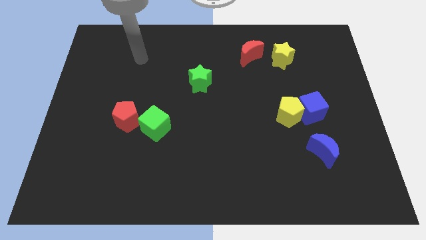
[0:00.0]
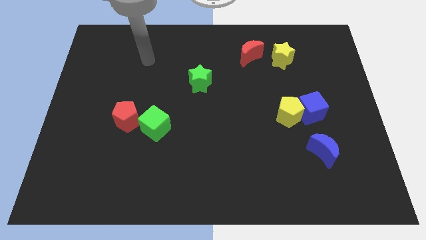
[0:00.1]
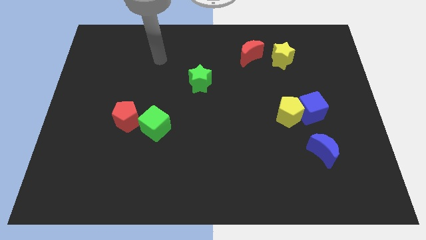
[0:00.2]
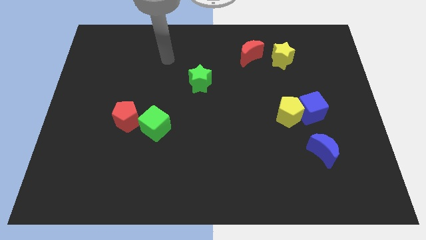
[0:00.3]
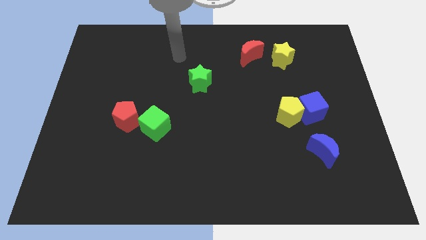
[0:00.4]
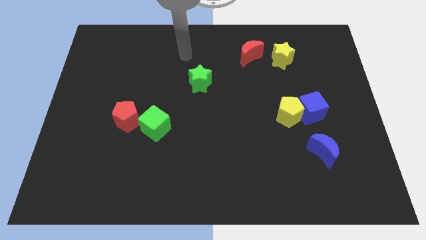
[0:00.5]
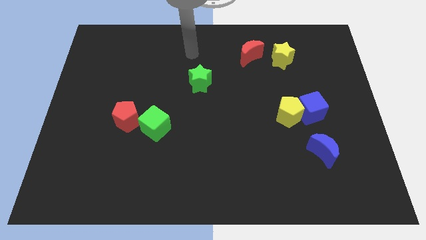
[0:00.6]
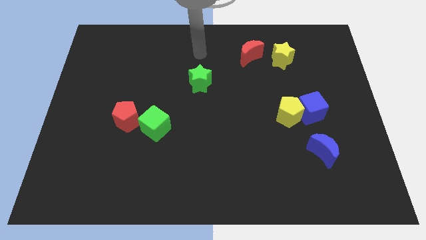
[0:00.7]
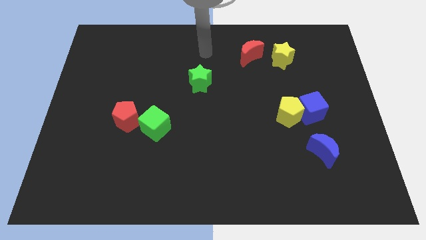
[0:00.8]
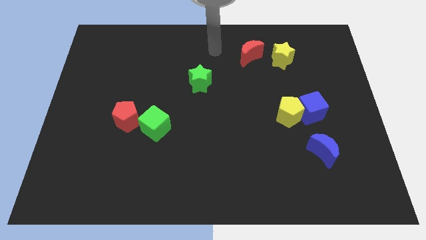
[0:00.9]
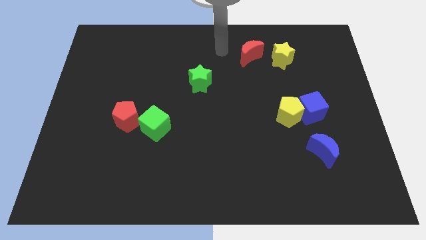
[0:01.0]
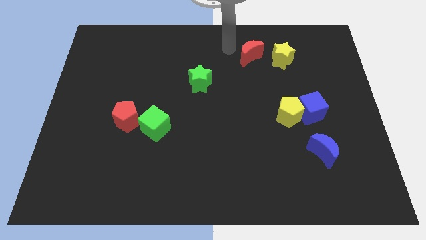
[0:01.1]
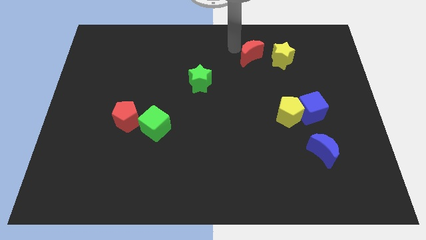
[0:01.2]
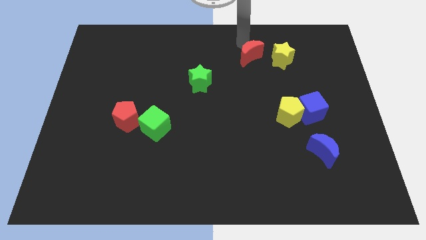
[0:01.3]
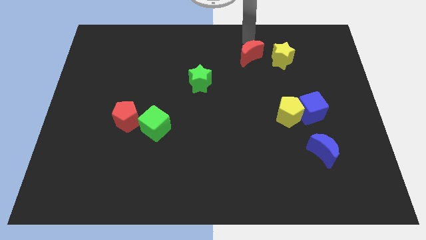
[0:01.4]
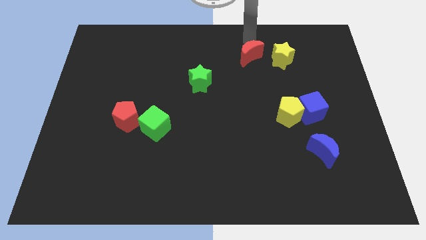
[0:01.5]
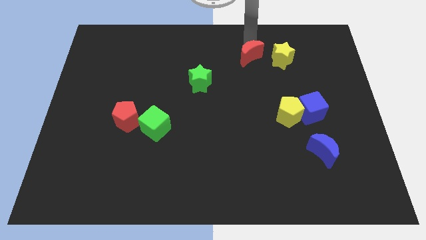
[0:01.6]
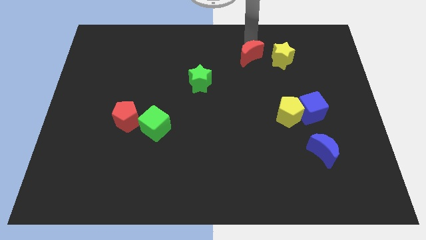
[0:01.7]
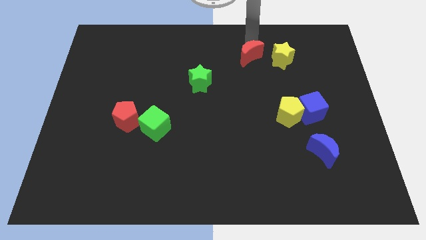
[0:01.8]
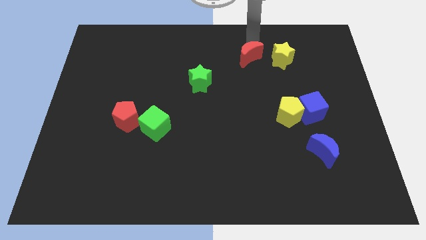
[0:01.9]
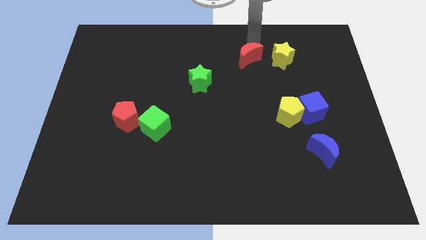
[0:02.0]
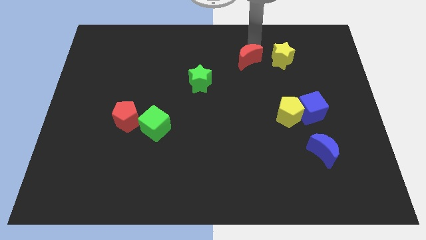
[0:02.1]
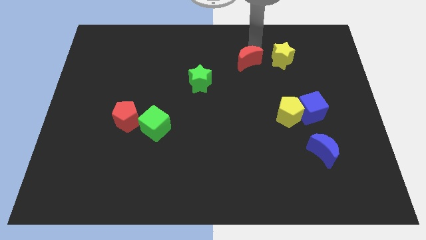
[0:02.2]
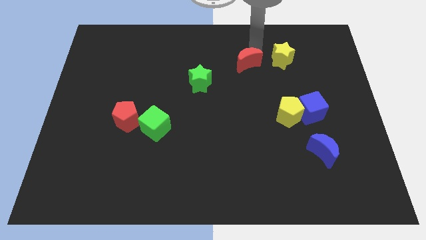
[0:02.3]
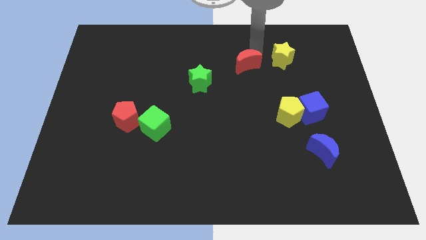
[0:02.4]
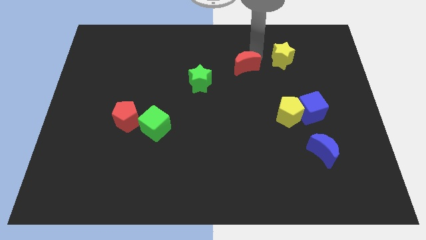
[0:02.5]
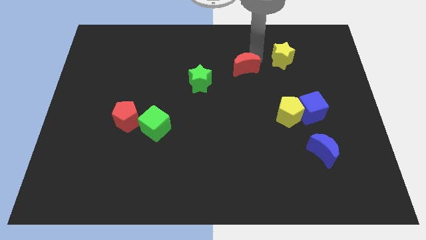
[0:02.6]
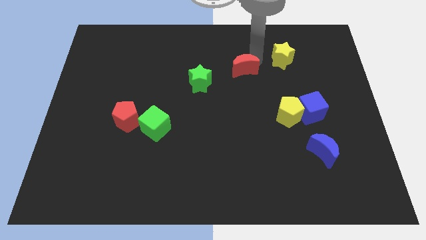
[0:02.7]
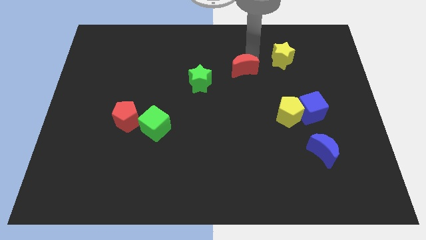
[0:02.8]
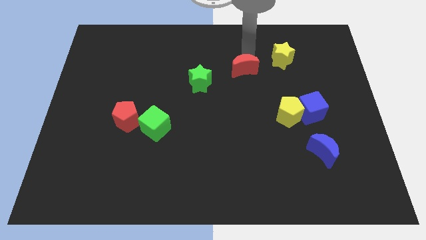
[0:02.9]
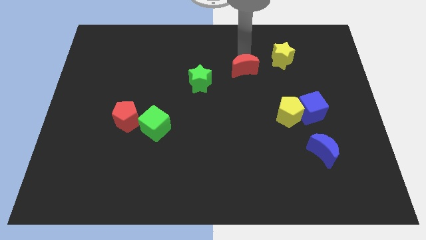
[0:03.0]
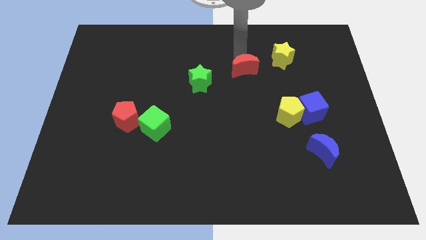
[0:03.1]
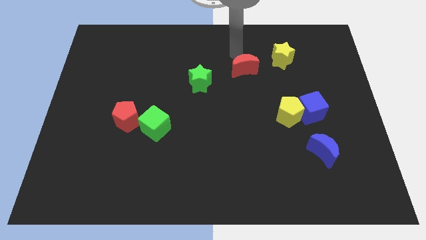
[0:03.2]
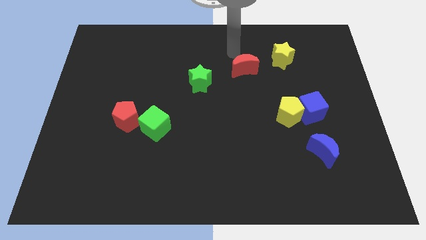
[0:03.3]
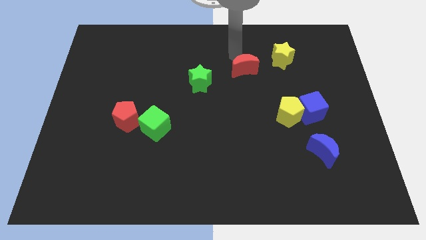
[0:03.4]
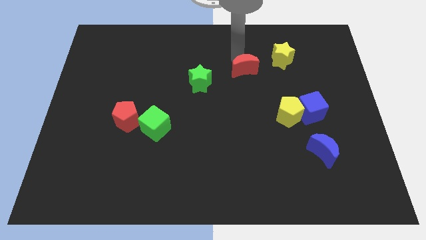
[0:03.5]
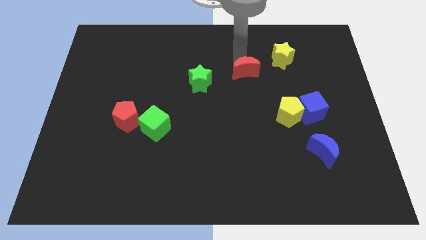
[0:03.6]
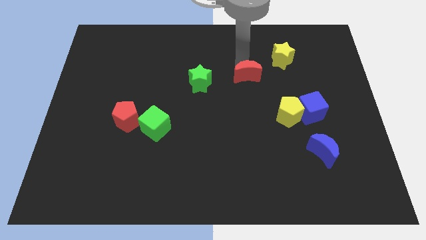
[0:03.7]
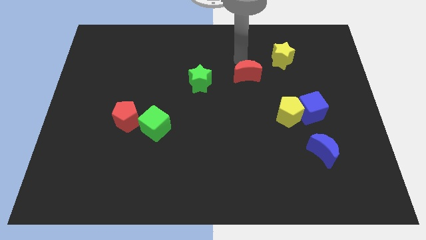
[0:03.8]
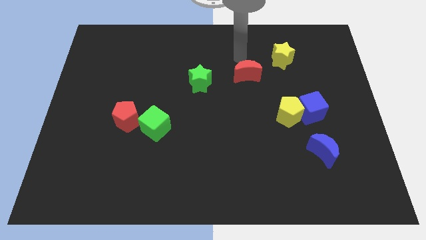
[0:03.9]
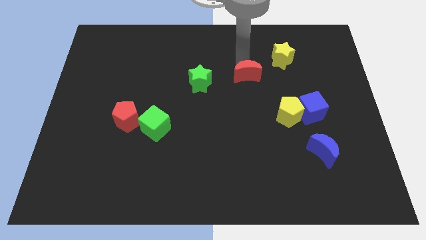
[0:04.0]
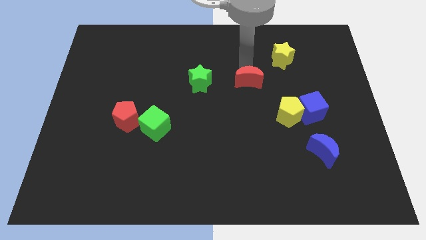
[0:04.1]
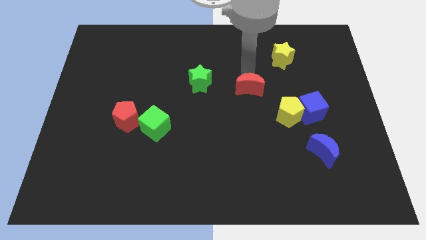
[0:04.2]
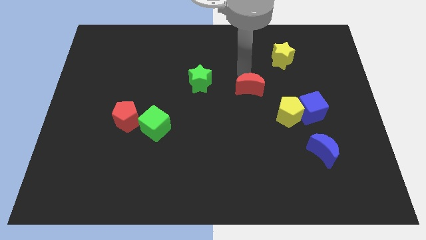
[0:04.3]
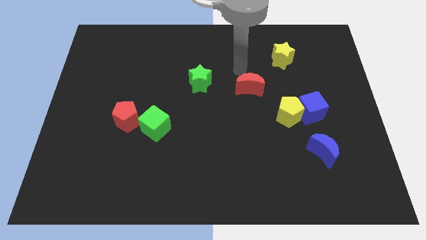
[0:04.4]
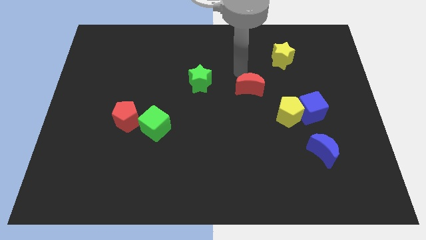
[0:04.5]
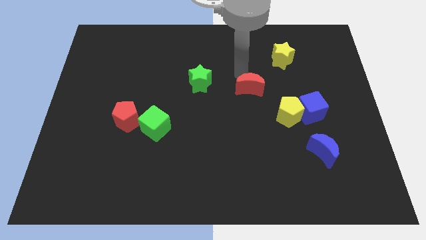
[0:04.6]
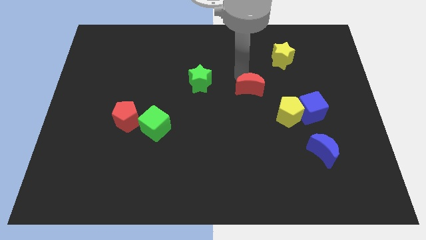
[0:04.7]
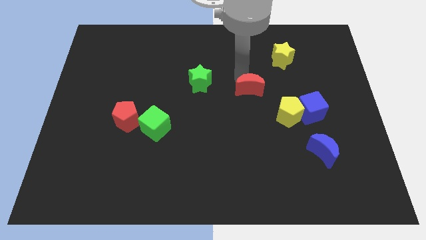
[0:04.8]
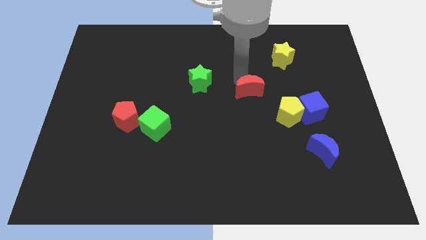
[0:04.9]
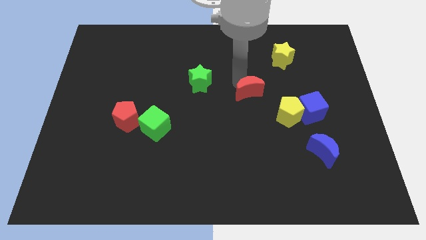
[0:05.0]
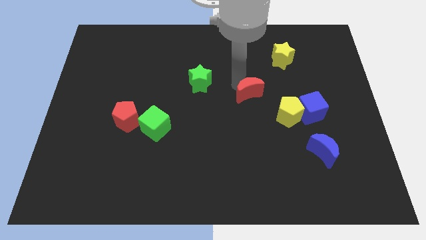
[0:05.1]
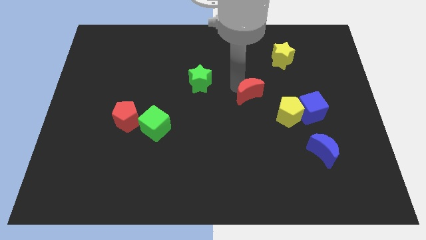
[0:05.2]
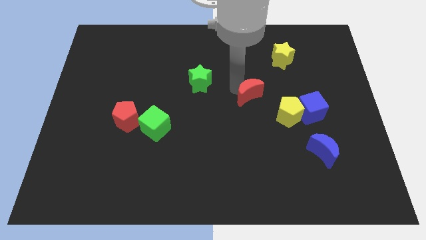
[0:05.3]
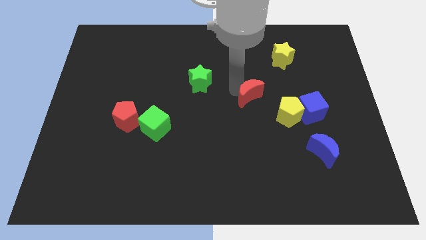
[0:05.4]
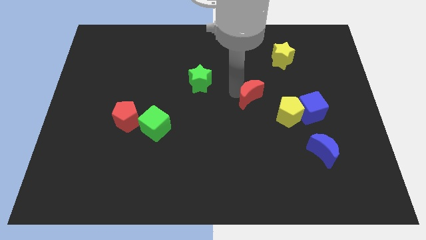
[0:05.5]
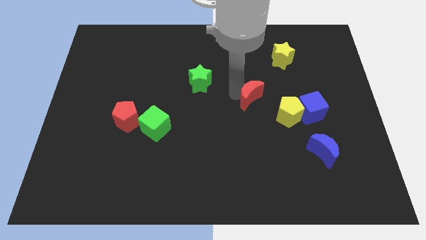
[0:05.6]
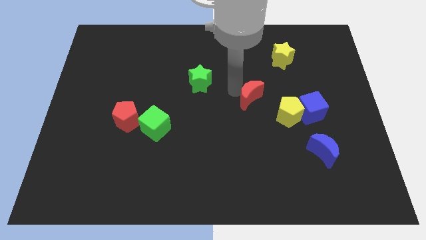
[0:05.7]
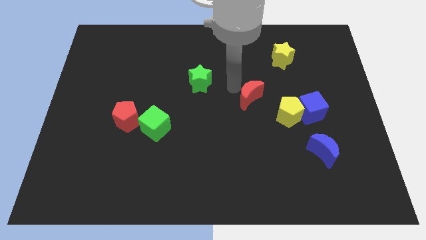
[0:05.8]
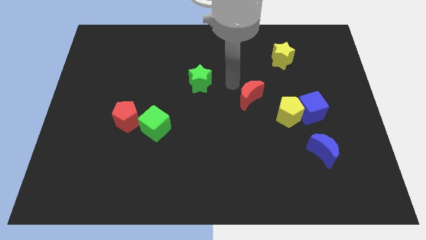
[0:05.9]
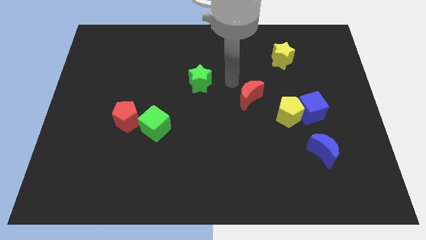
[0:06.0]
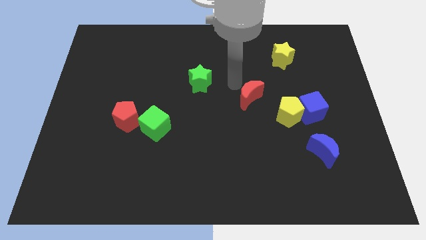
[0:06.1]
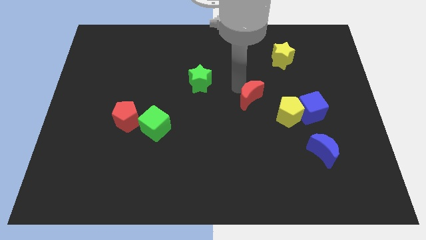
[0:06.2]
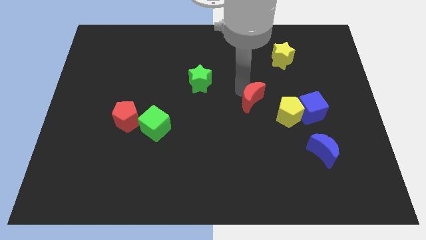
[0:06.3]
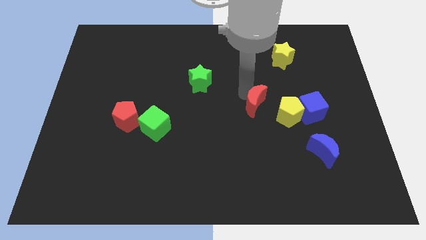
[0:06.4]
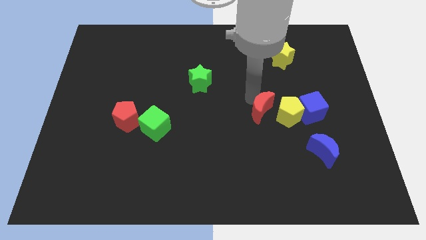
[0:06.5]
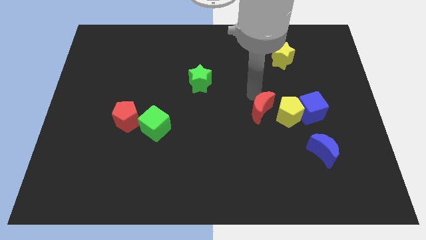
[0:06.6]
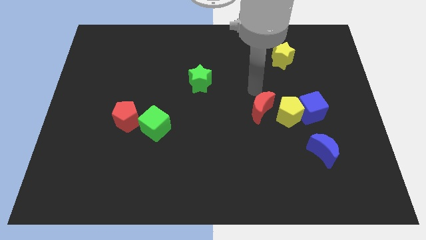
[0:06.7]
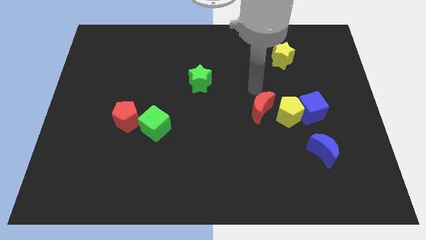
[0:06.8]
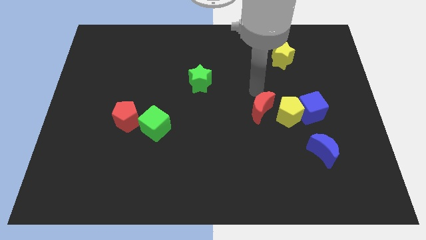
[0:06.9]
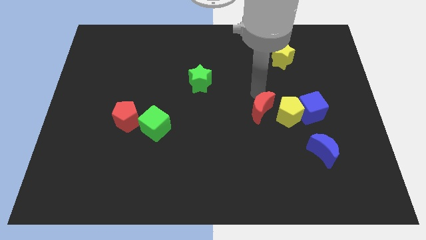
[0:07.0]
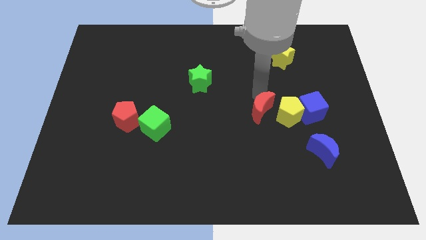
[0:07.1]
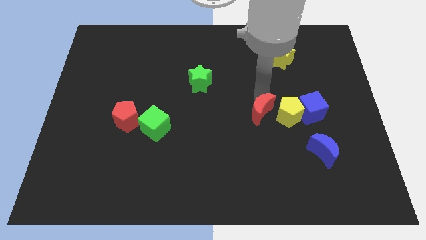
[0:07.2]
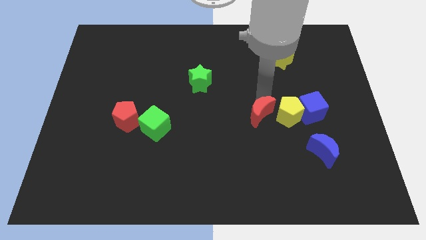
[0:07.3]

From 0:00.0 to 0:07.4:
slide the red moon to the bottom left side of the yellow pentagon

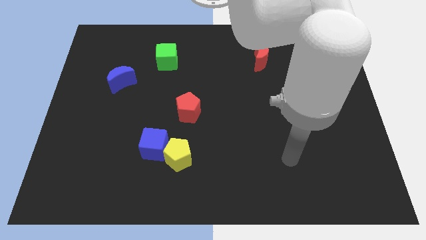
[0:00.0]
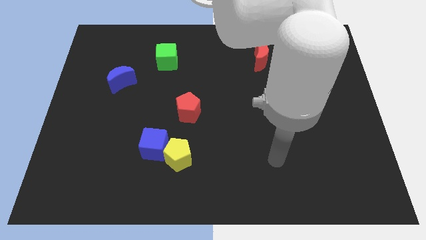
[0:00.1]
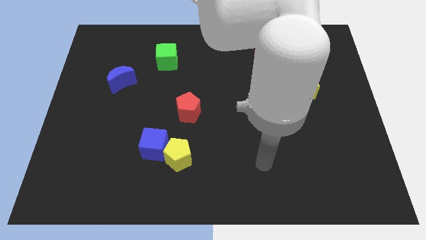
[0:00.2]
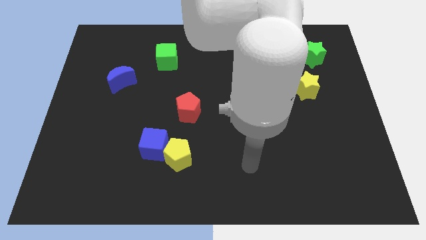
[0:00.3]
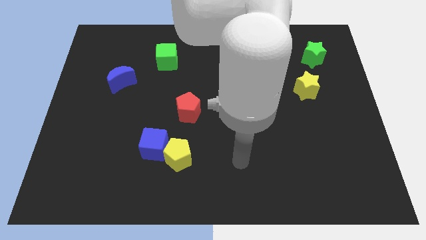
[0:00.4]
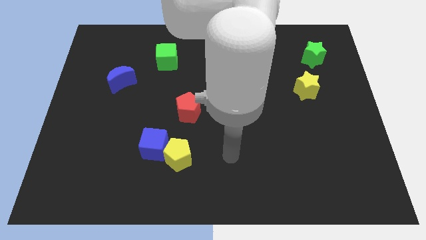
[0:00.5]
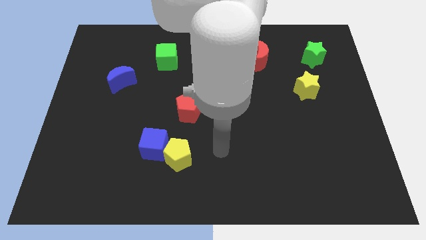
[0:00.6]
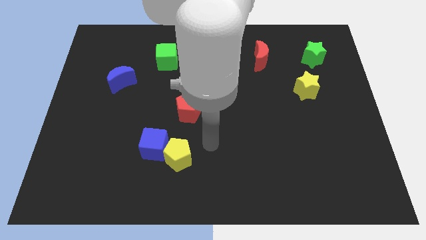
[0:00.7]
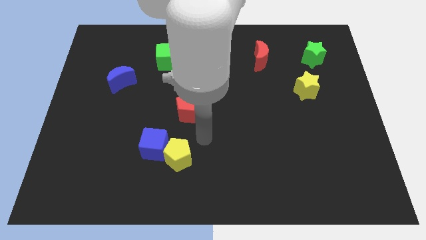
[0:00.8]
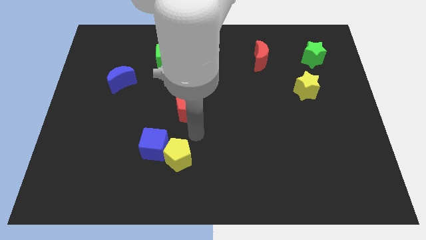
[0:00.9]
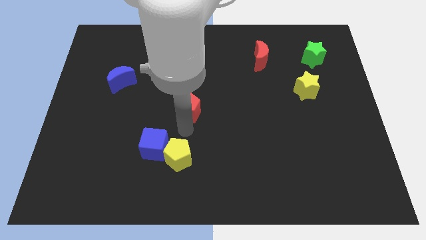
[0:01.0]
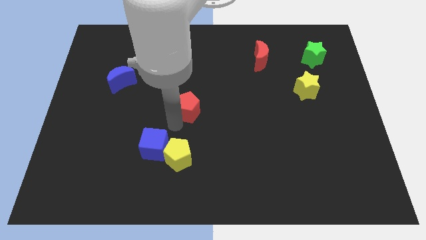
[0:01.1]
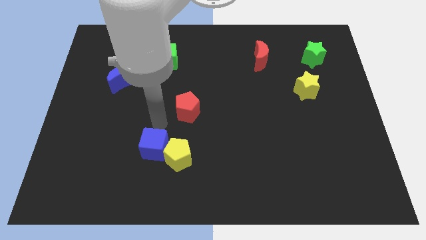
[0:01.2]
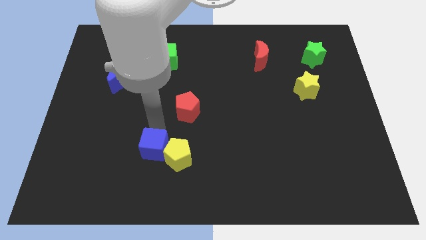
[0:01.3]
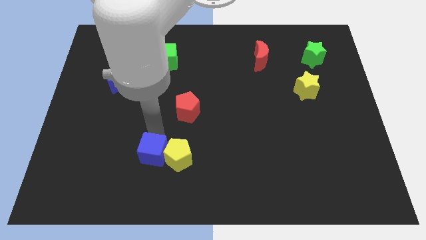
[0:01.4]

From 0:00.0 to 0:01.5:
put the blue cube diagonally down and to the left of the yellow pentagon
